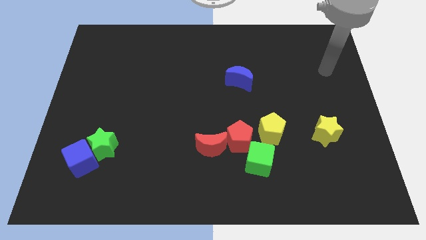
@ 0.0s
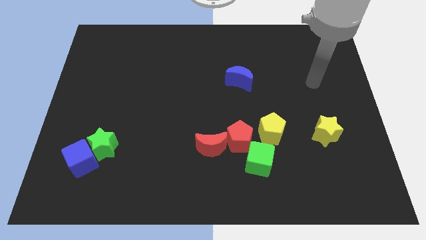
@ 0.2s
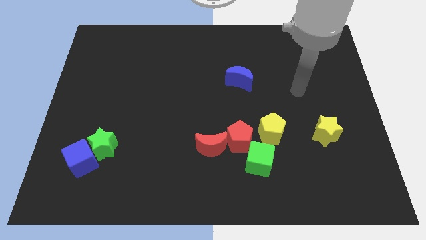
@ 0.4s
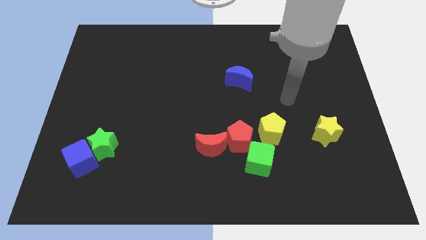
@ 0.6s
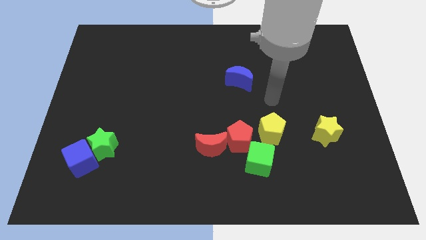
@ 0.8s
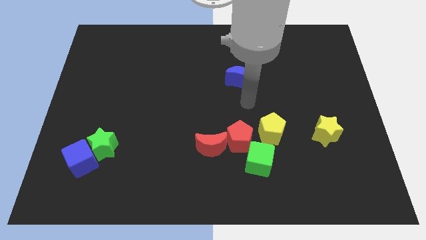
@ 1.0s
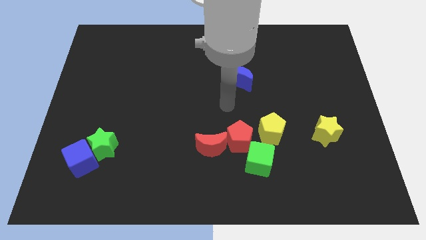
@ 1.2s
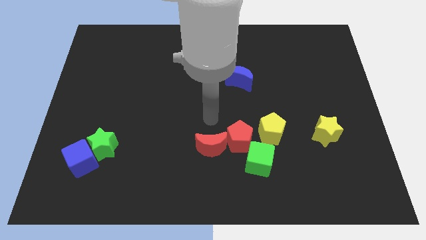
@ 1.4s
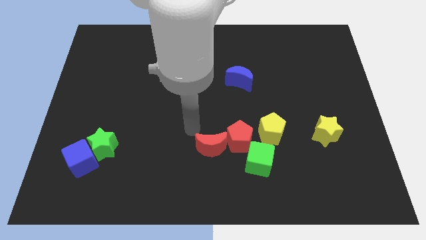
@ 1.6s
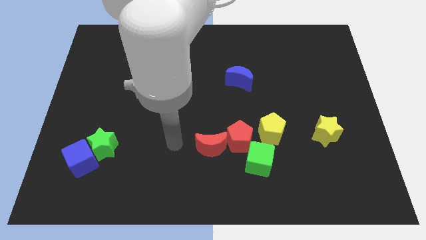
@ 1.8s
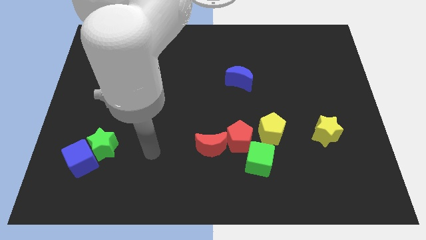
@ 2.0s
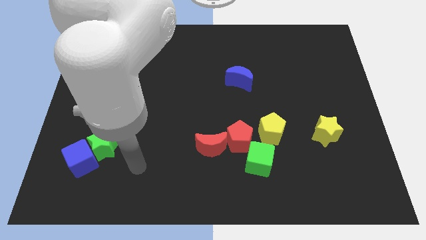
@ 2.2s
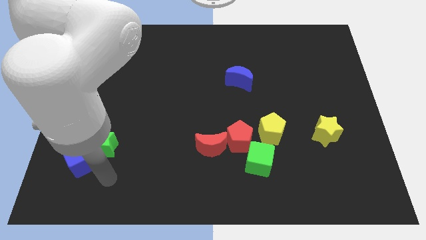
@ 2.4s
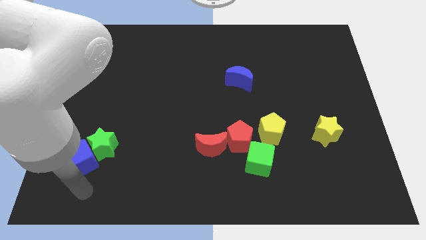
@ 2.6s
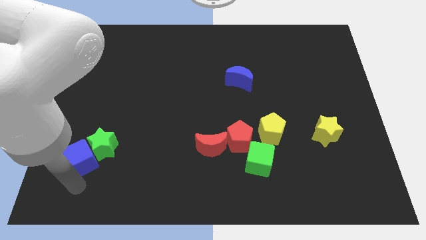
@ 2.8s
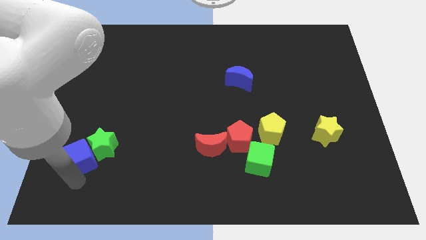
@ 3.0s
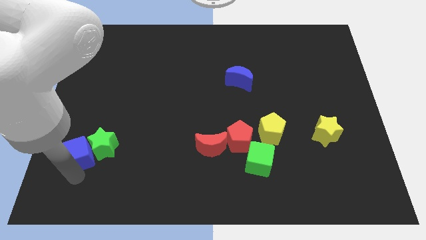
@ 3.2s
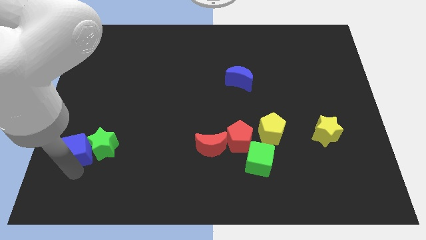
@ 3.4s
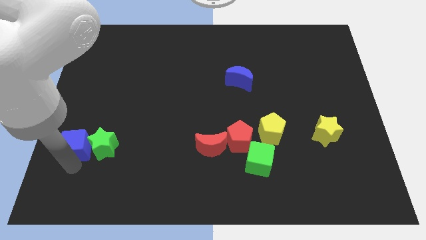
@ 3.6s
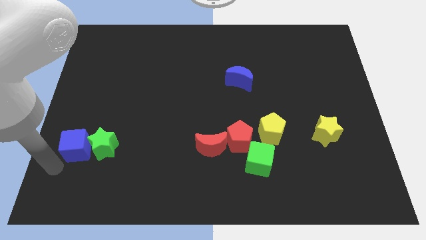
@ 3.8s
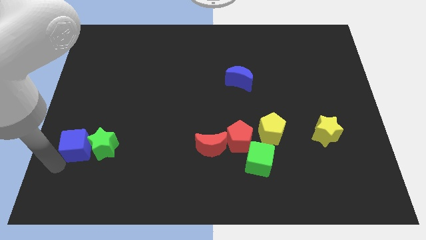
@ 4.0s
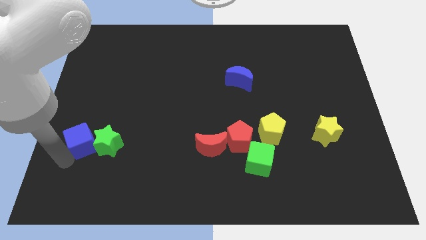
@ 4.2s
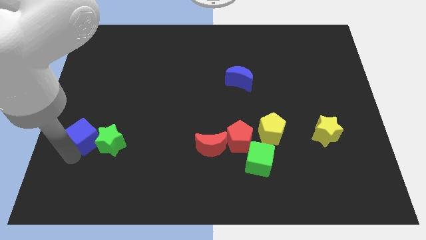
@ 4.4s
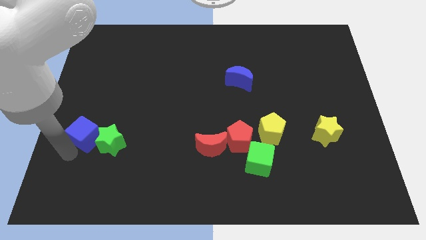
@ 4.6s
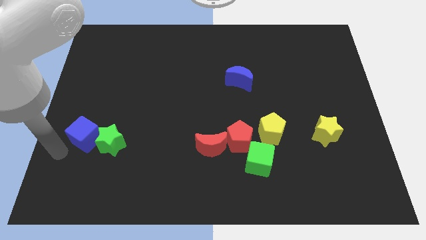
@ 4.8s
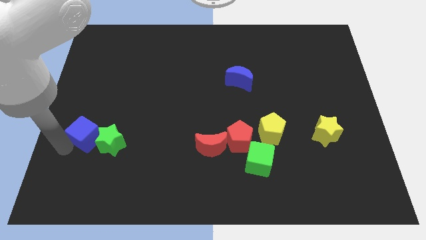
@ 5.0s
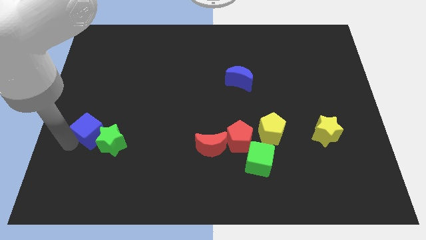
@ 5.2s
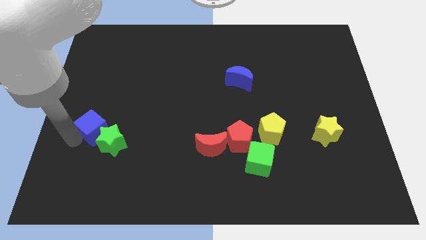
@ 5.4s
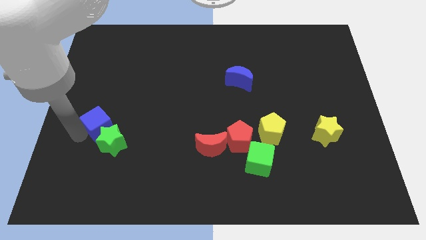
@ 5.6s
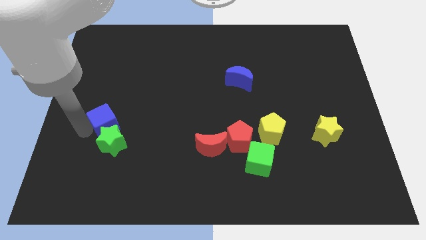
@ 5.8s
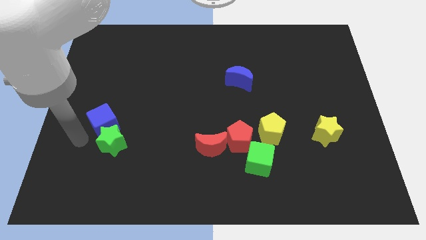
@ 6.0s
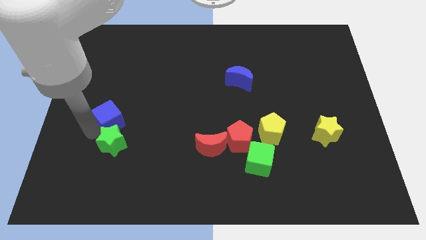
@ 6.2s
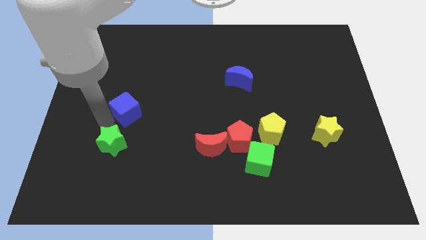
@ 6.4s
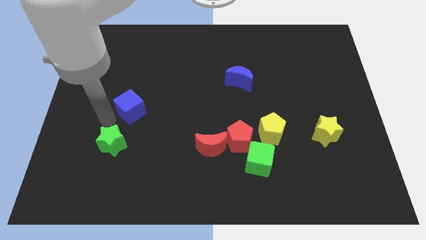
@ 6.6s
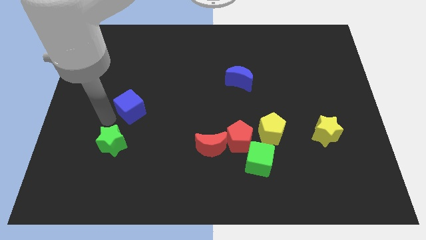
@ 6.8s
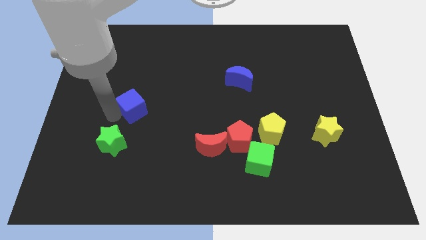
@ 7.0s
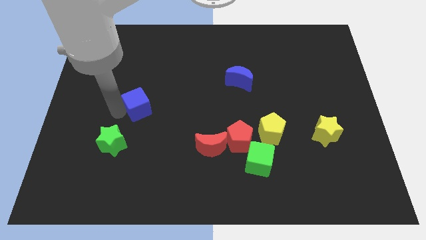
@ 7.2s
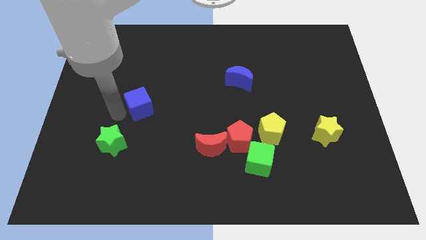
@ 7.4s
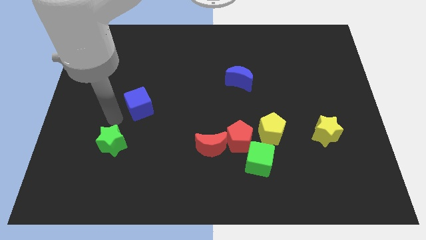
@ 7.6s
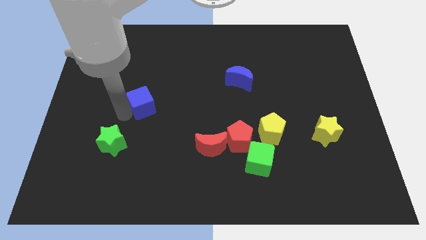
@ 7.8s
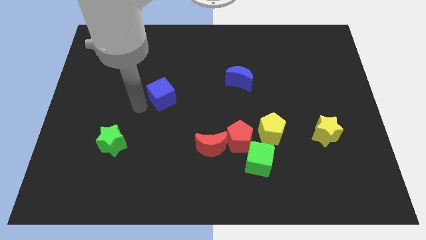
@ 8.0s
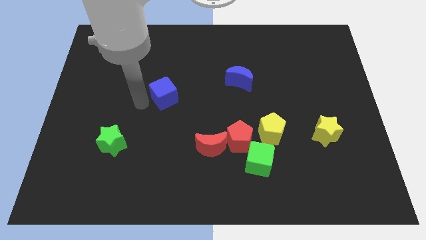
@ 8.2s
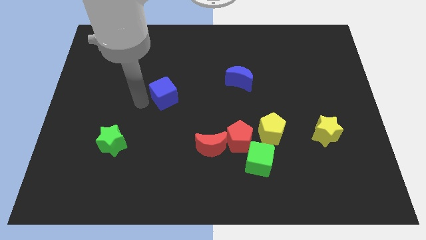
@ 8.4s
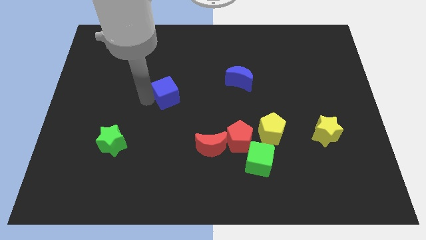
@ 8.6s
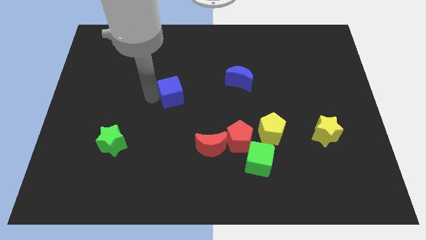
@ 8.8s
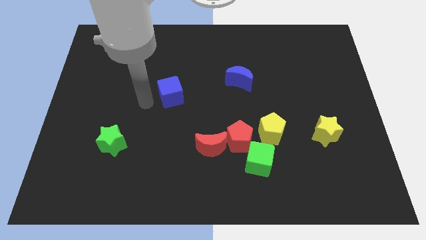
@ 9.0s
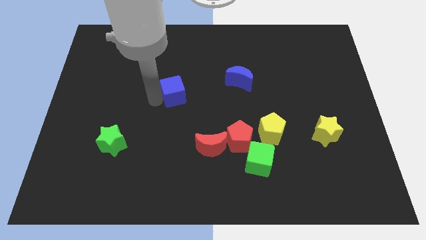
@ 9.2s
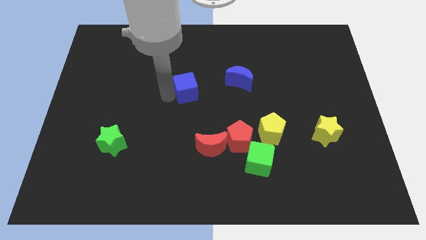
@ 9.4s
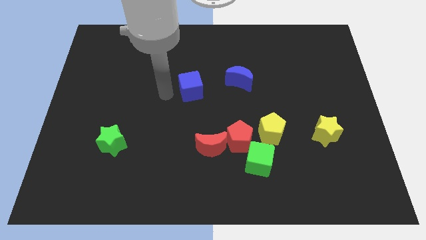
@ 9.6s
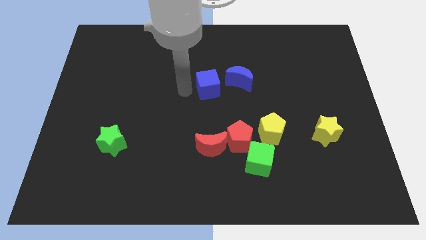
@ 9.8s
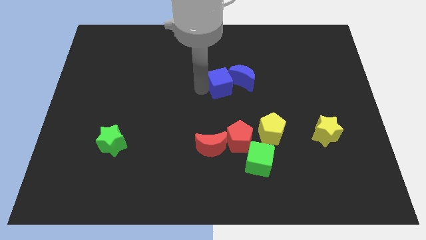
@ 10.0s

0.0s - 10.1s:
push the blue cube next to the blue moon

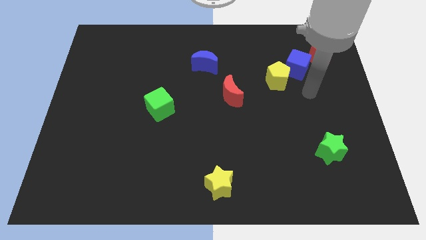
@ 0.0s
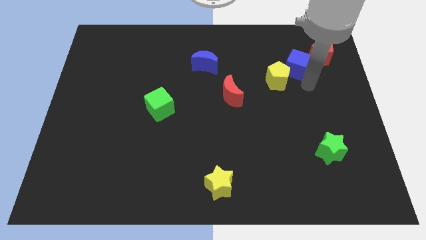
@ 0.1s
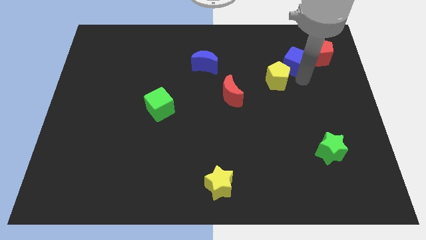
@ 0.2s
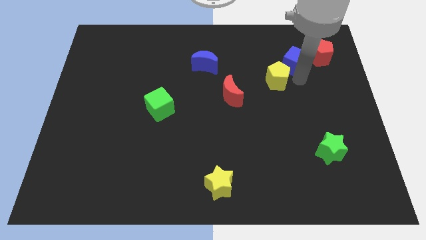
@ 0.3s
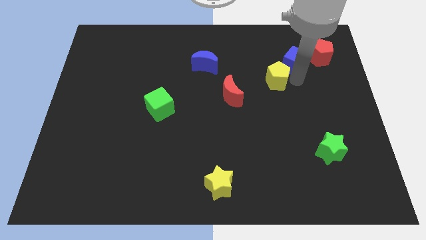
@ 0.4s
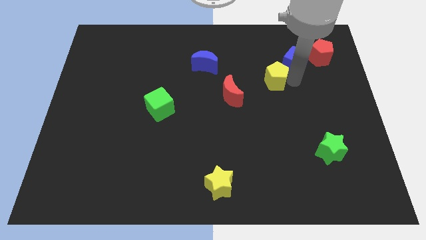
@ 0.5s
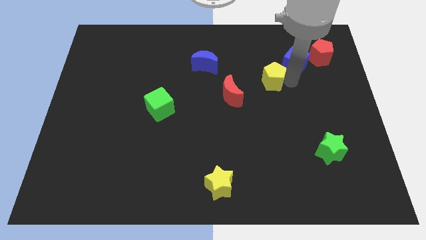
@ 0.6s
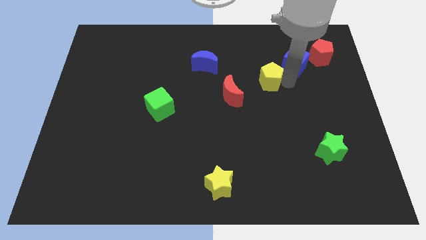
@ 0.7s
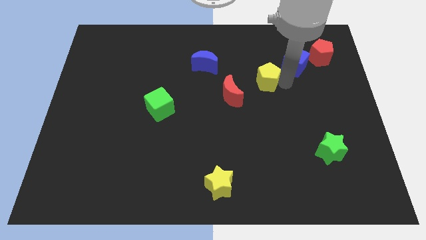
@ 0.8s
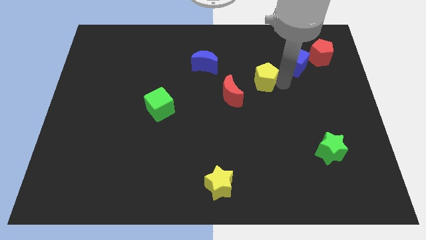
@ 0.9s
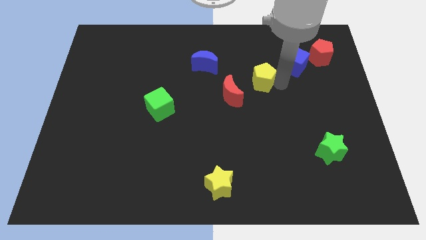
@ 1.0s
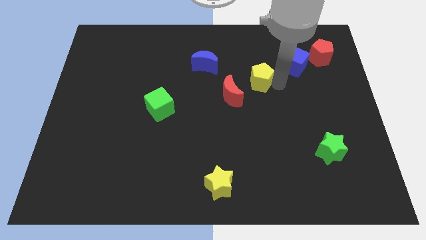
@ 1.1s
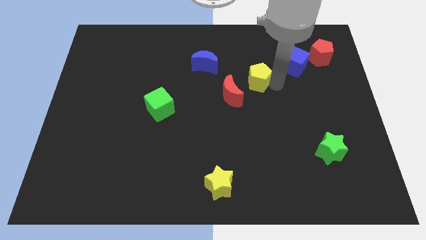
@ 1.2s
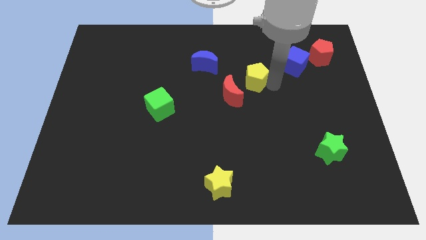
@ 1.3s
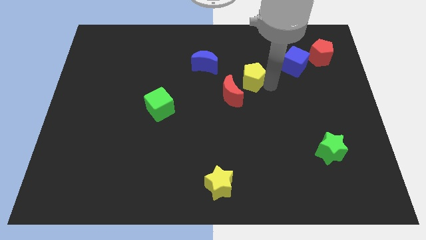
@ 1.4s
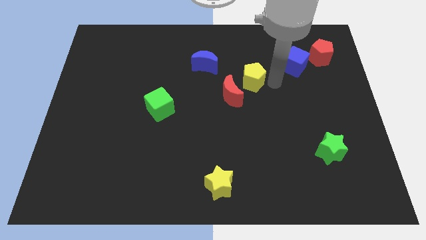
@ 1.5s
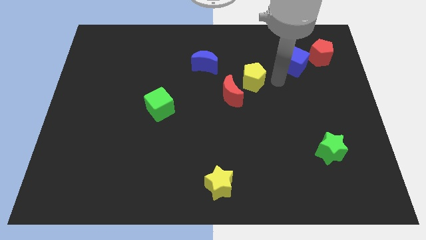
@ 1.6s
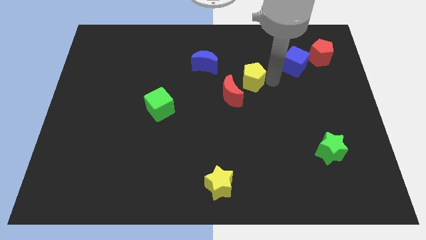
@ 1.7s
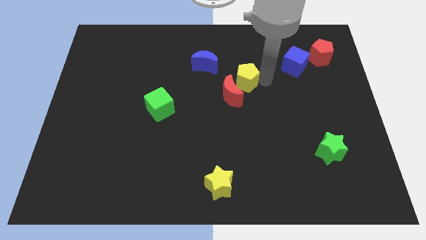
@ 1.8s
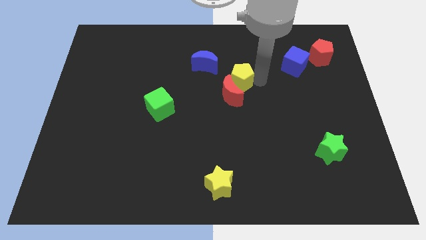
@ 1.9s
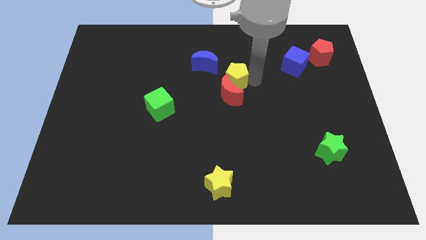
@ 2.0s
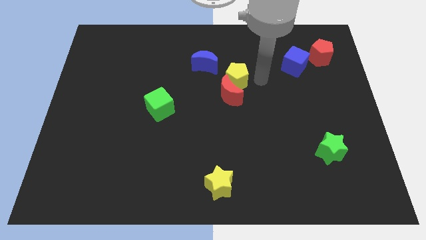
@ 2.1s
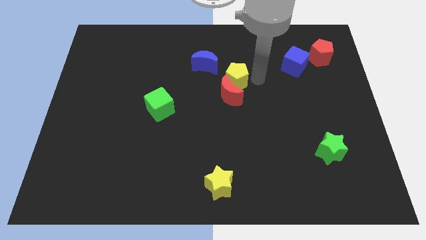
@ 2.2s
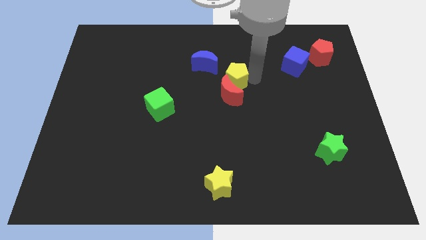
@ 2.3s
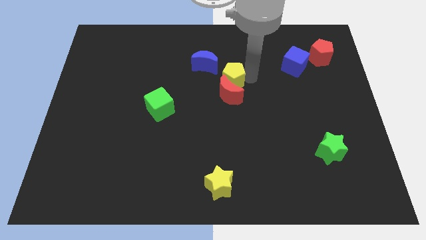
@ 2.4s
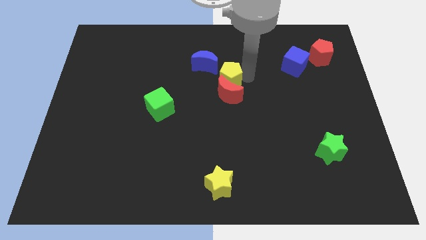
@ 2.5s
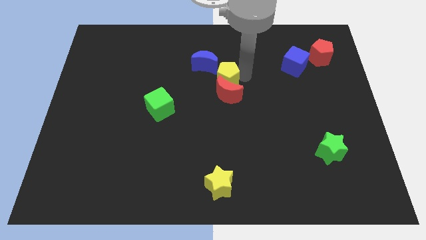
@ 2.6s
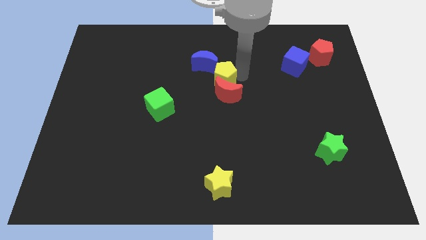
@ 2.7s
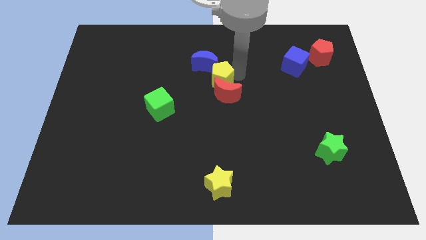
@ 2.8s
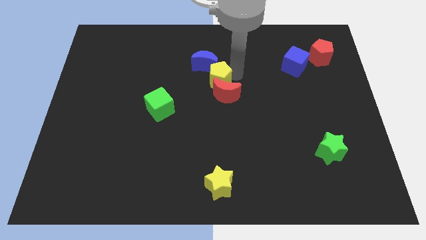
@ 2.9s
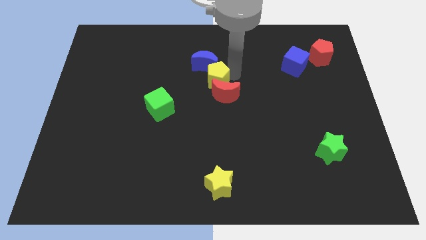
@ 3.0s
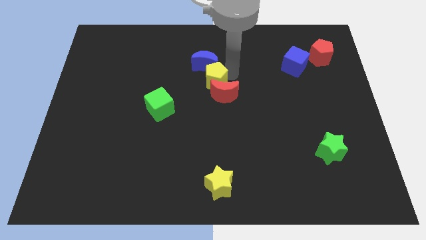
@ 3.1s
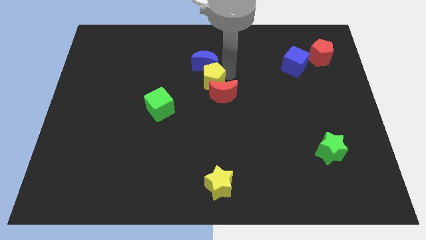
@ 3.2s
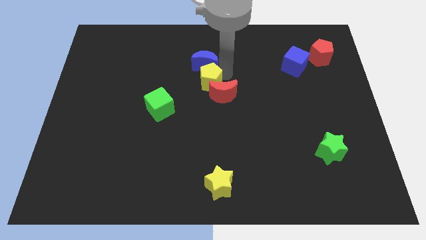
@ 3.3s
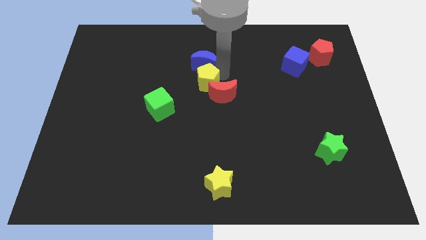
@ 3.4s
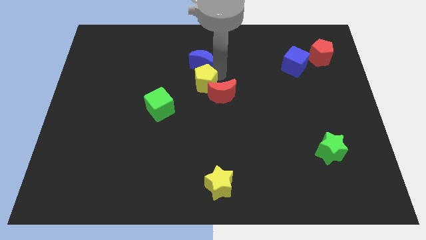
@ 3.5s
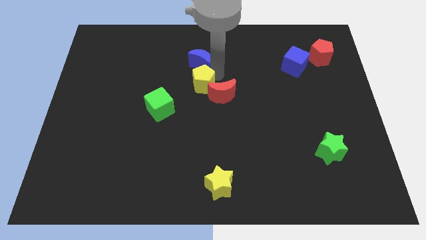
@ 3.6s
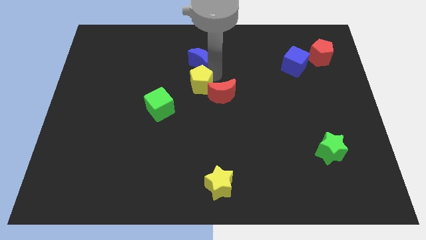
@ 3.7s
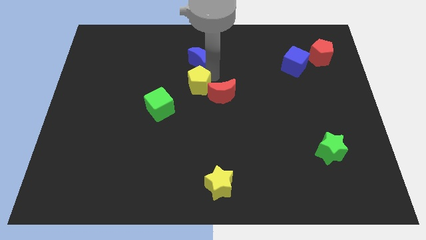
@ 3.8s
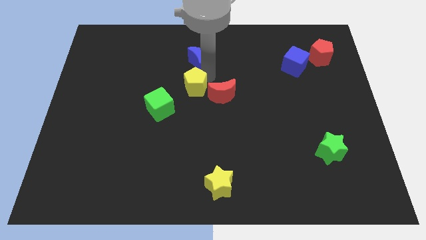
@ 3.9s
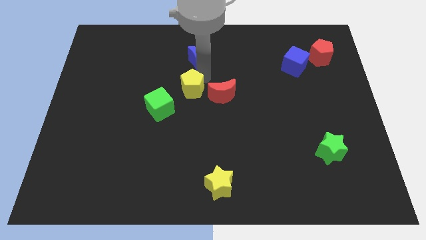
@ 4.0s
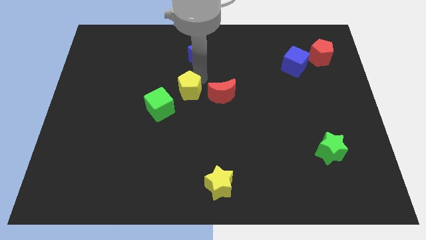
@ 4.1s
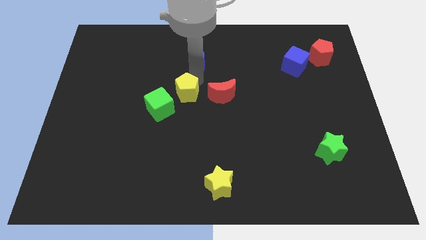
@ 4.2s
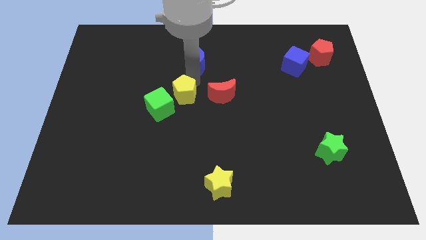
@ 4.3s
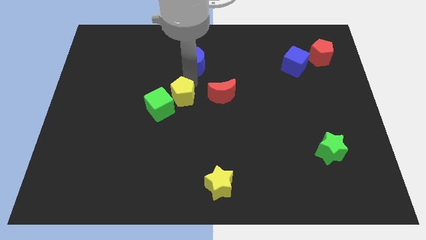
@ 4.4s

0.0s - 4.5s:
slide the yellow pentagon to the green cube
